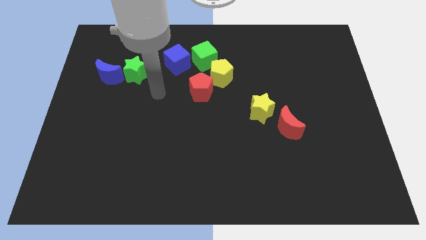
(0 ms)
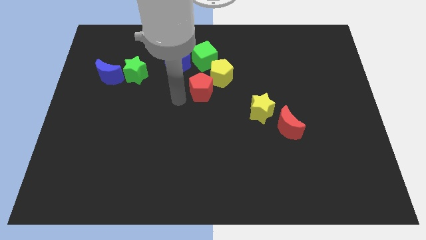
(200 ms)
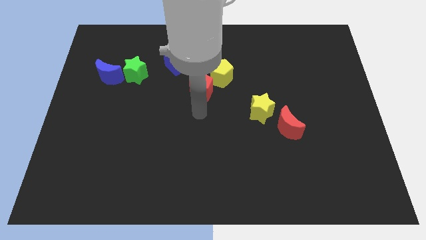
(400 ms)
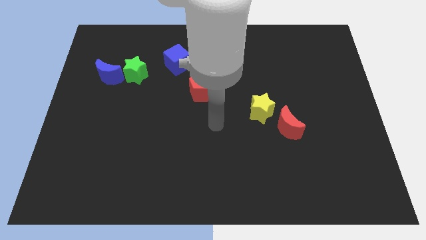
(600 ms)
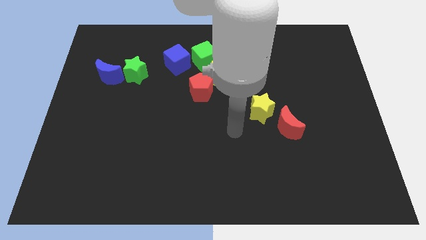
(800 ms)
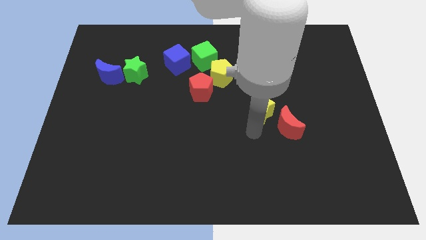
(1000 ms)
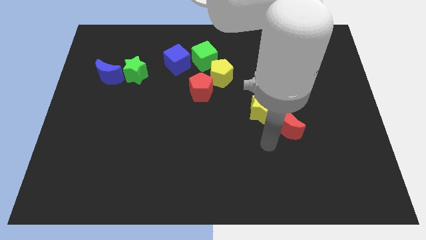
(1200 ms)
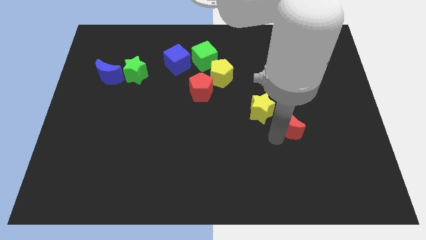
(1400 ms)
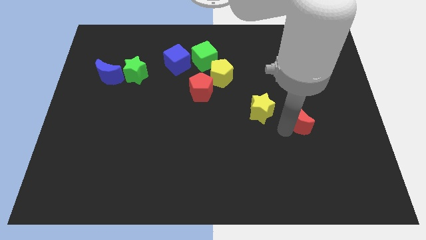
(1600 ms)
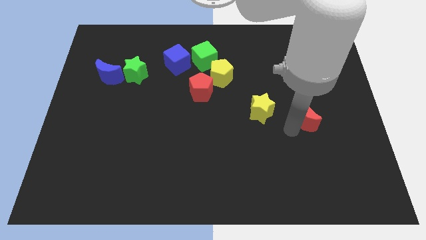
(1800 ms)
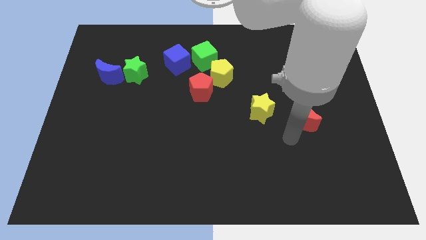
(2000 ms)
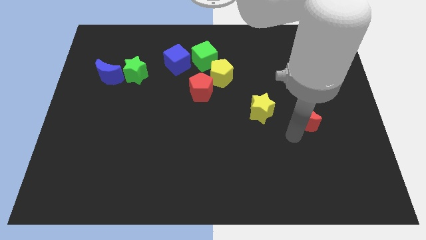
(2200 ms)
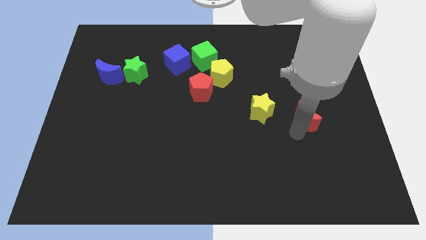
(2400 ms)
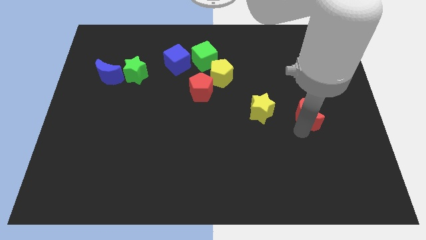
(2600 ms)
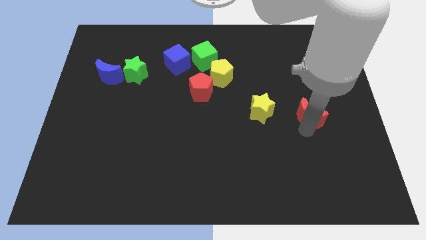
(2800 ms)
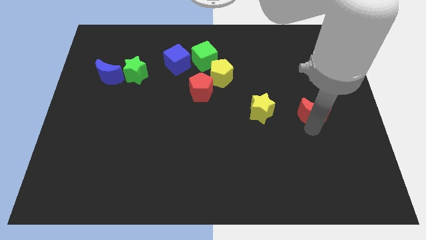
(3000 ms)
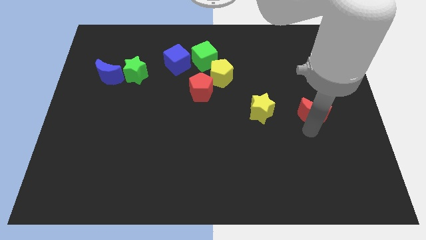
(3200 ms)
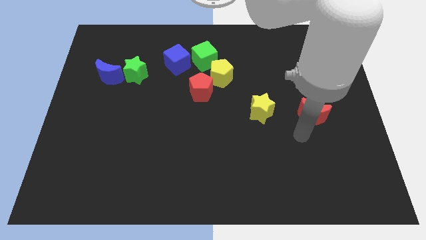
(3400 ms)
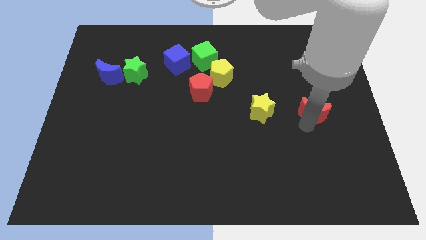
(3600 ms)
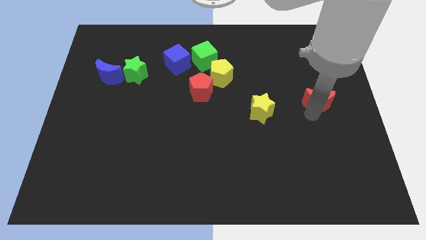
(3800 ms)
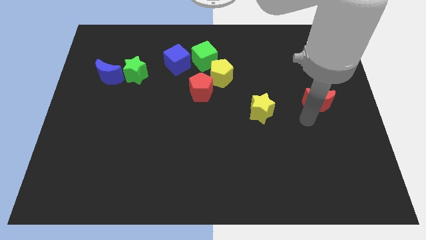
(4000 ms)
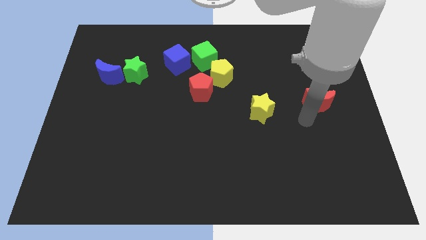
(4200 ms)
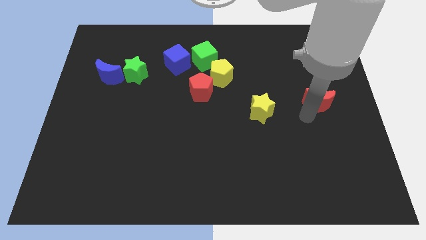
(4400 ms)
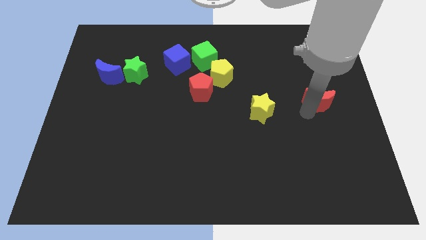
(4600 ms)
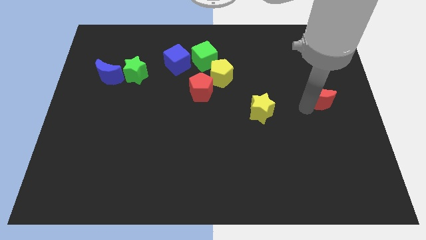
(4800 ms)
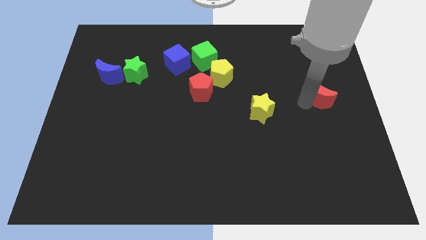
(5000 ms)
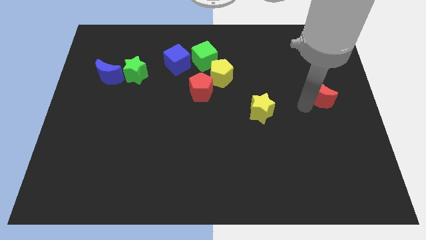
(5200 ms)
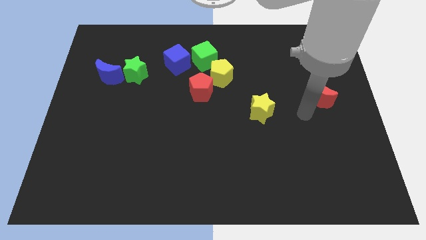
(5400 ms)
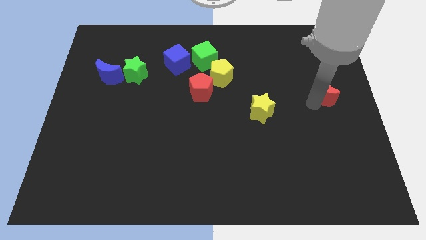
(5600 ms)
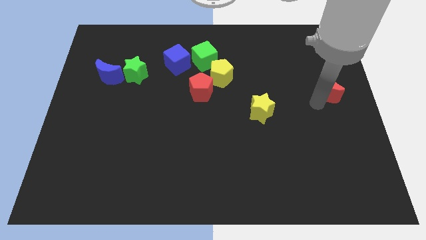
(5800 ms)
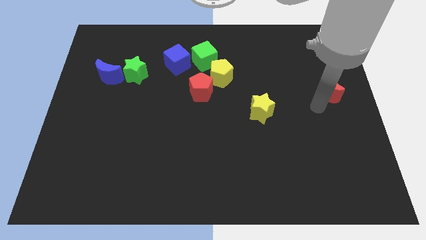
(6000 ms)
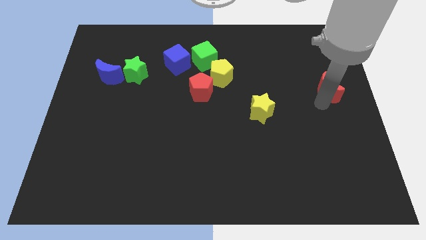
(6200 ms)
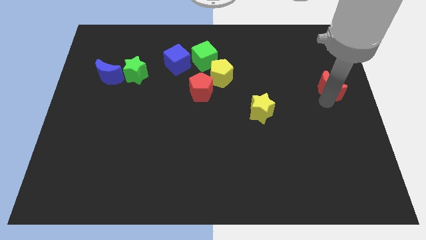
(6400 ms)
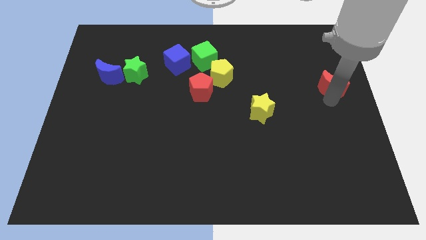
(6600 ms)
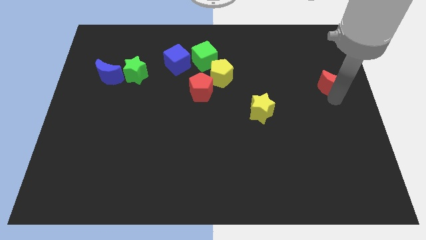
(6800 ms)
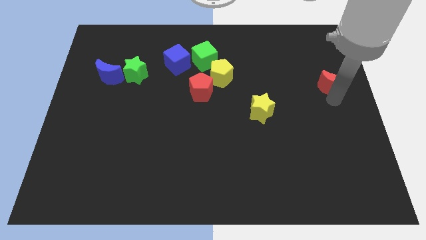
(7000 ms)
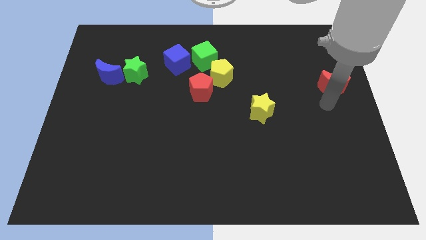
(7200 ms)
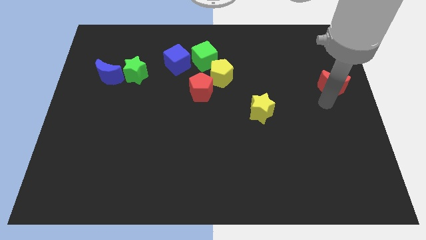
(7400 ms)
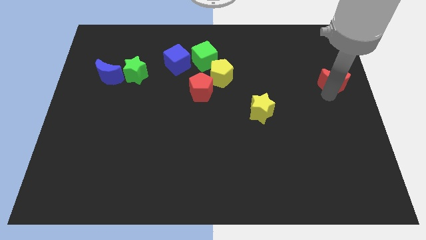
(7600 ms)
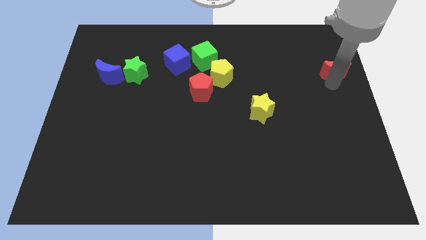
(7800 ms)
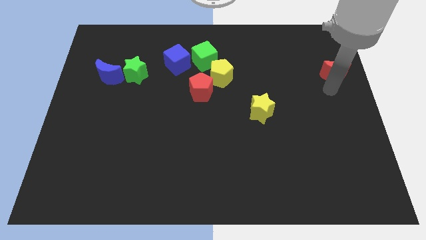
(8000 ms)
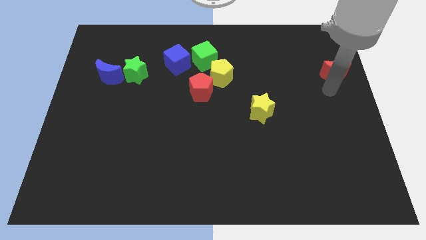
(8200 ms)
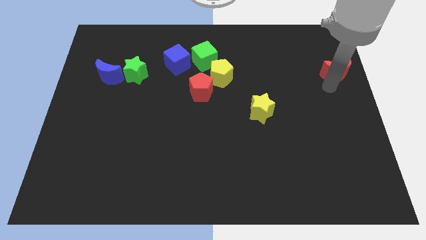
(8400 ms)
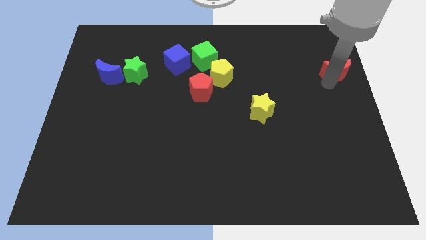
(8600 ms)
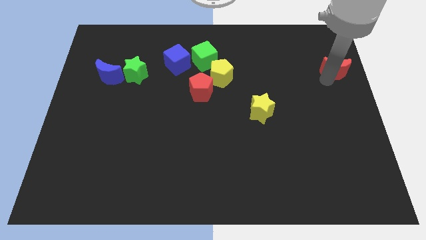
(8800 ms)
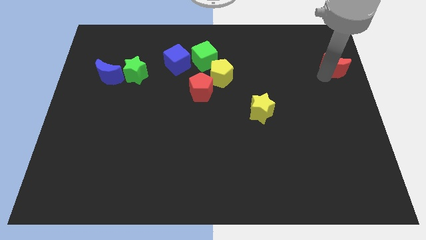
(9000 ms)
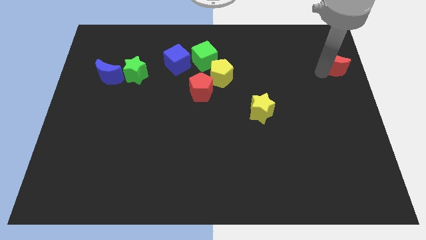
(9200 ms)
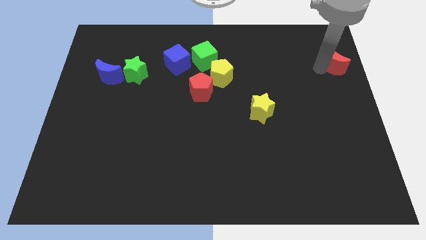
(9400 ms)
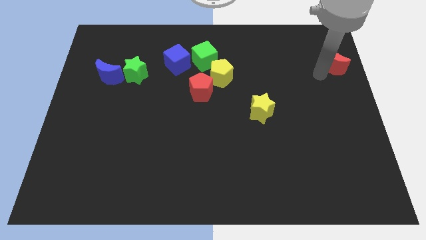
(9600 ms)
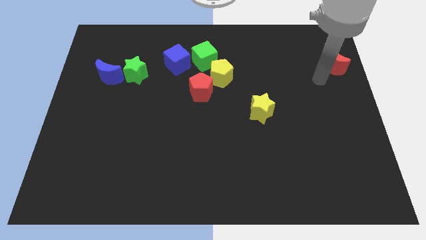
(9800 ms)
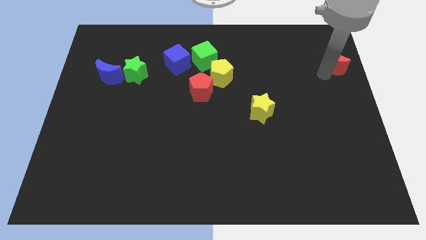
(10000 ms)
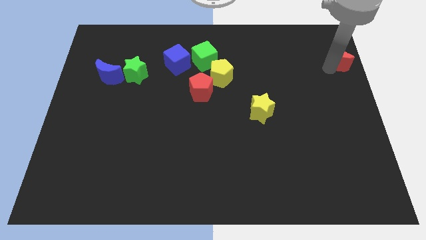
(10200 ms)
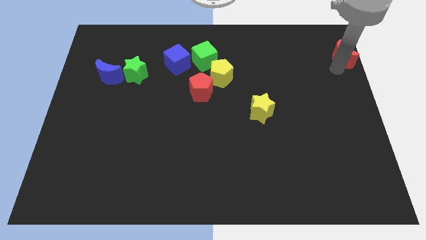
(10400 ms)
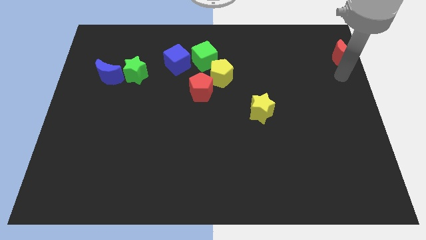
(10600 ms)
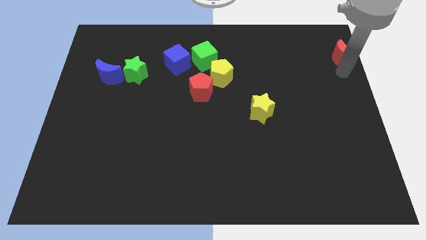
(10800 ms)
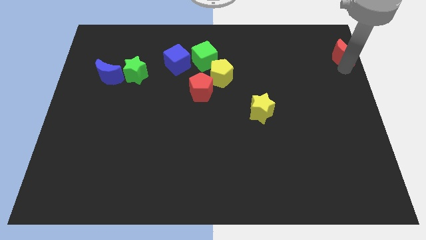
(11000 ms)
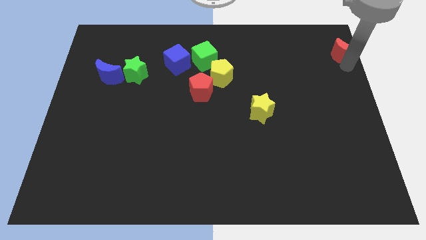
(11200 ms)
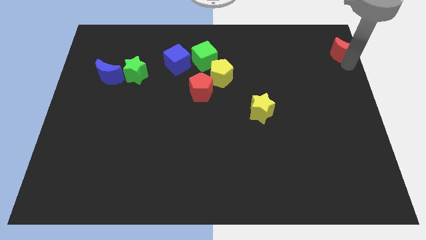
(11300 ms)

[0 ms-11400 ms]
move the red moon to the top right

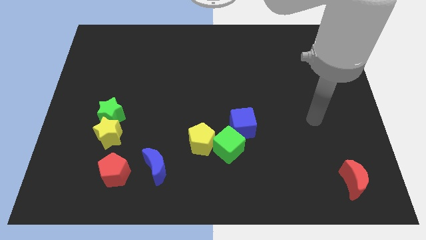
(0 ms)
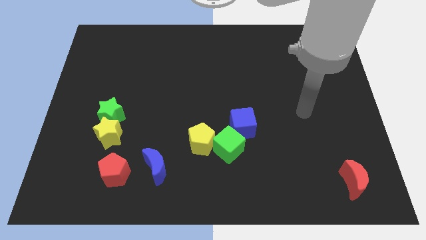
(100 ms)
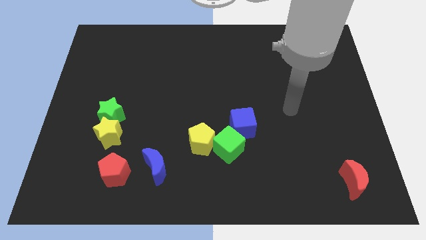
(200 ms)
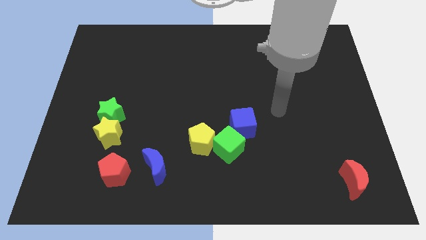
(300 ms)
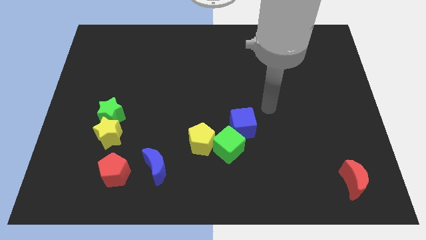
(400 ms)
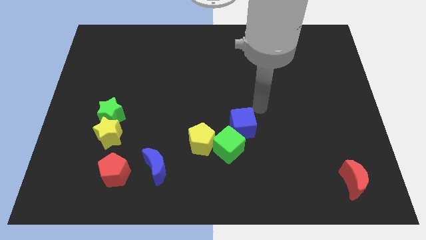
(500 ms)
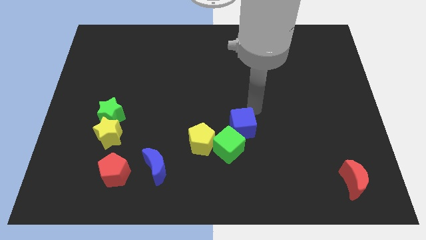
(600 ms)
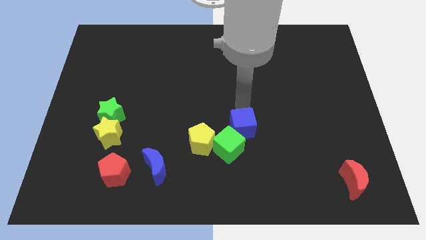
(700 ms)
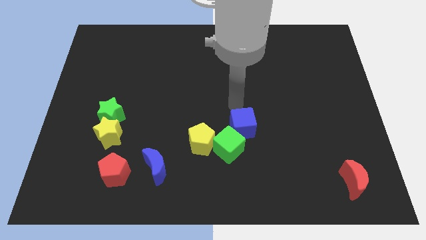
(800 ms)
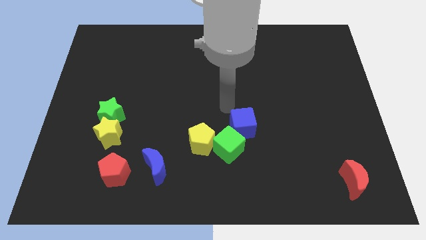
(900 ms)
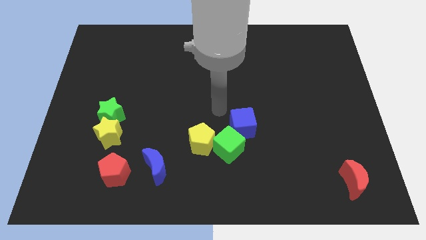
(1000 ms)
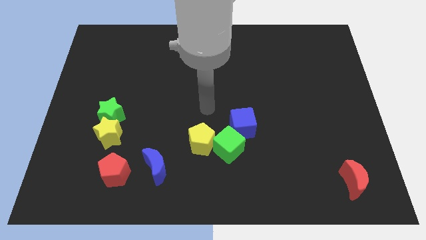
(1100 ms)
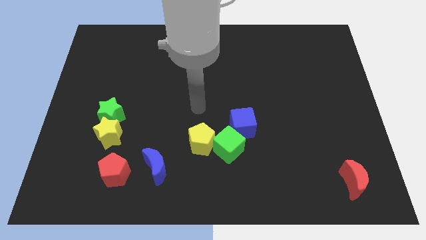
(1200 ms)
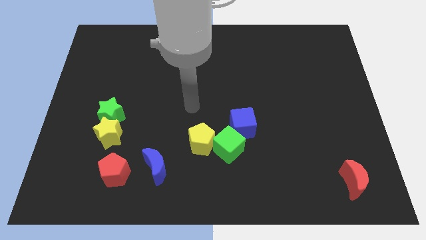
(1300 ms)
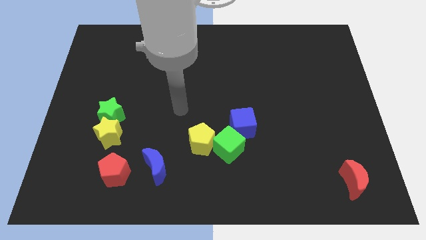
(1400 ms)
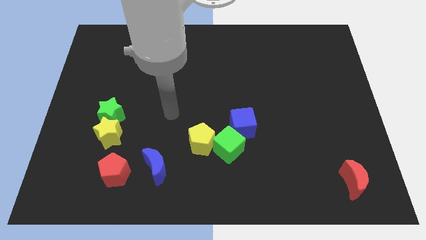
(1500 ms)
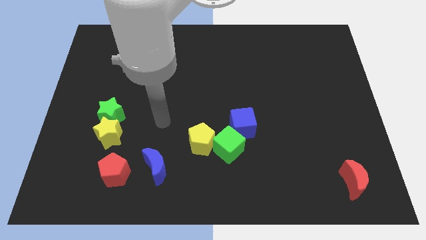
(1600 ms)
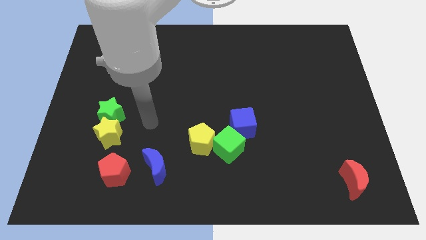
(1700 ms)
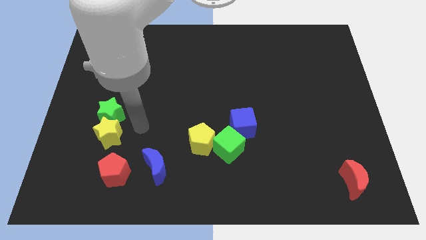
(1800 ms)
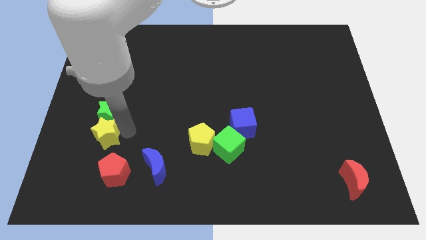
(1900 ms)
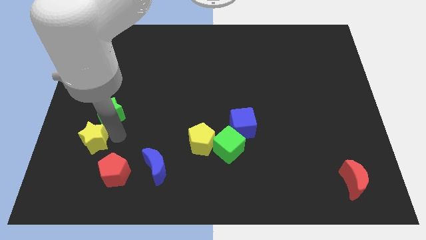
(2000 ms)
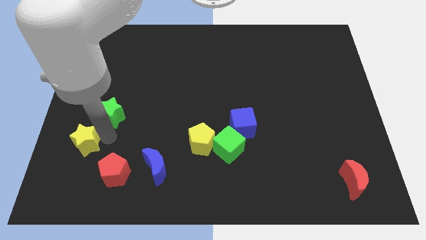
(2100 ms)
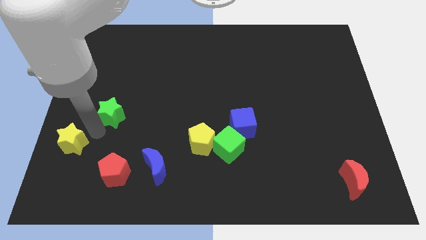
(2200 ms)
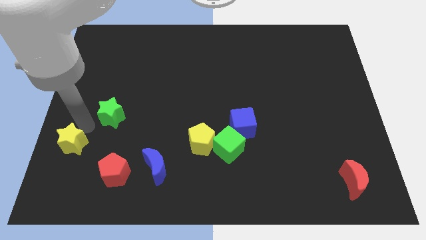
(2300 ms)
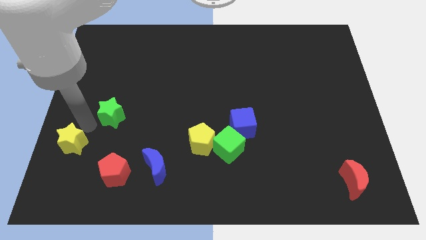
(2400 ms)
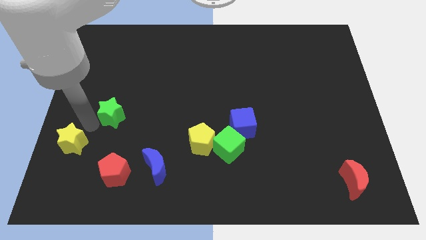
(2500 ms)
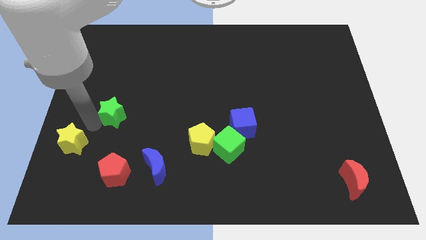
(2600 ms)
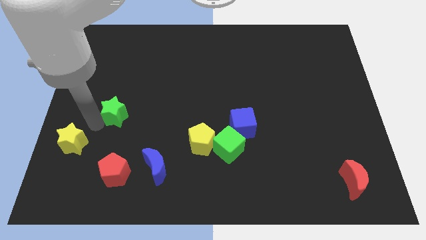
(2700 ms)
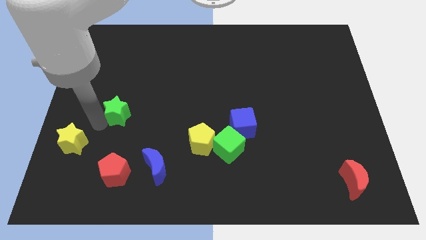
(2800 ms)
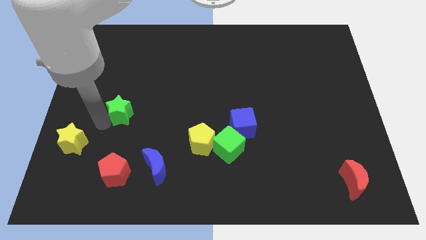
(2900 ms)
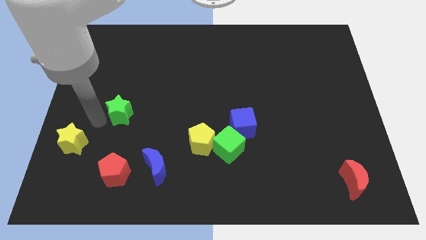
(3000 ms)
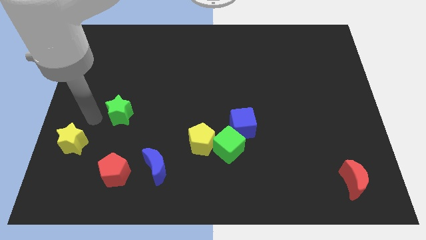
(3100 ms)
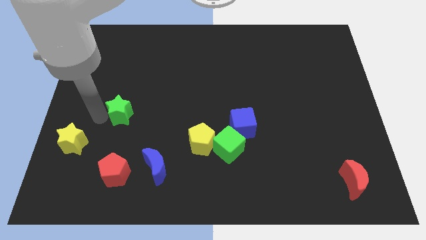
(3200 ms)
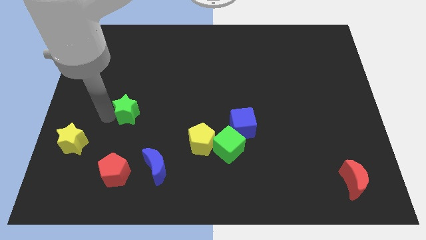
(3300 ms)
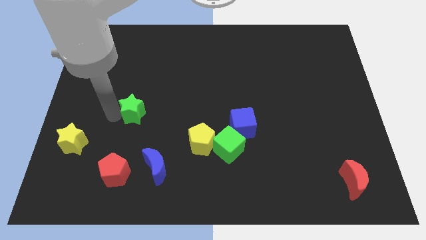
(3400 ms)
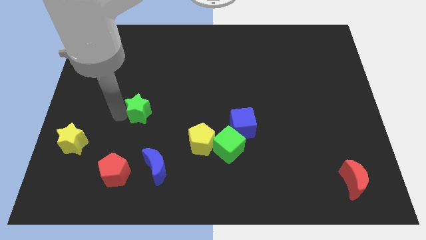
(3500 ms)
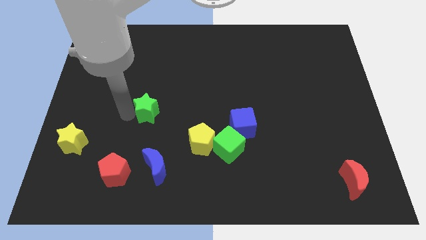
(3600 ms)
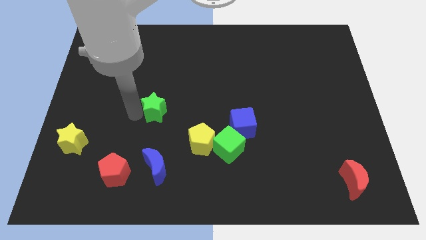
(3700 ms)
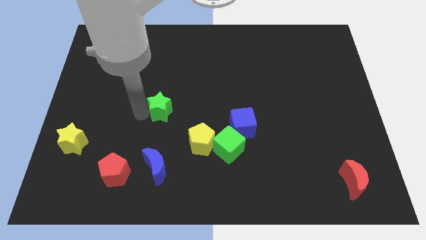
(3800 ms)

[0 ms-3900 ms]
put the green star to the center of the board
